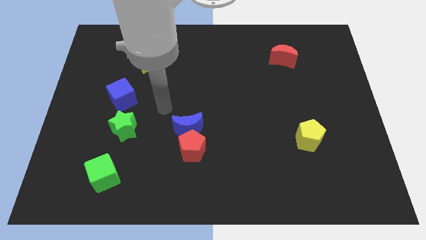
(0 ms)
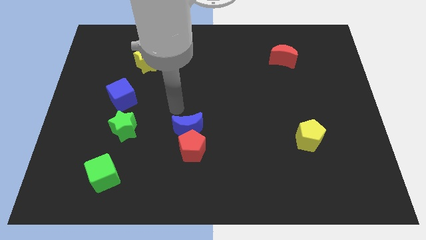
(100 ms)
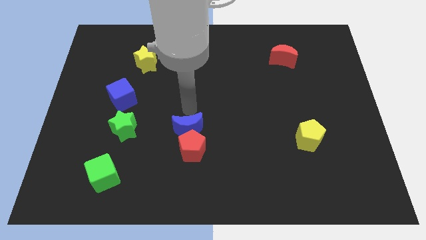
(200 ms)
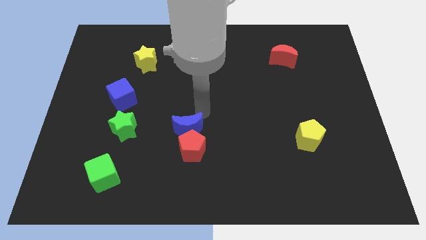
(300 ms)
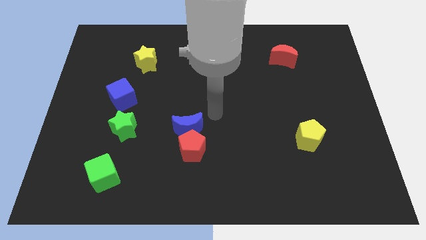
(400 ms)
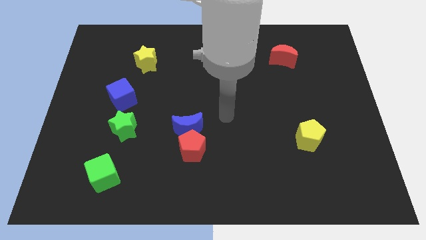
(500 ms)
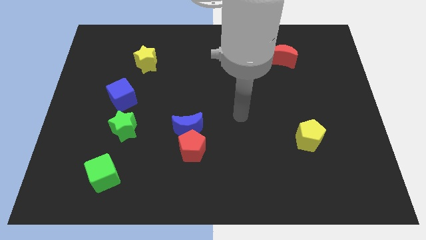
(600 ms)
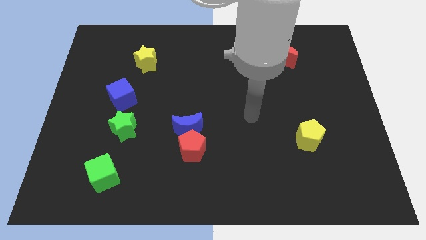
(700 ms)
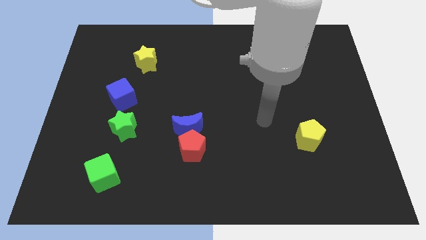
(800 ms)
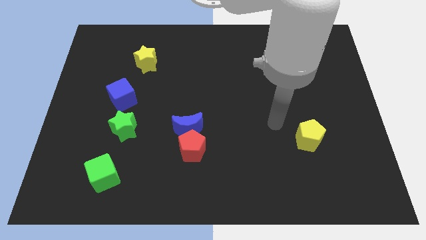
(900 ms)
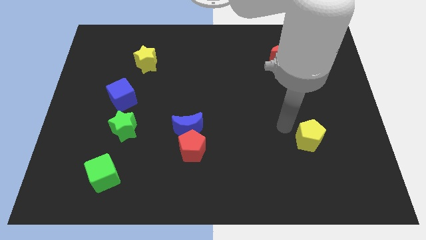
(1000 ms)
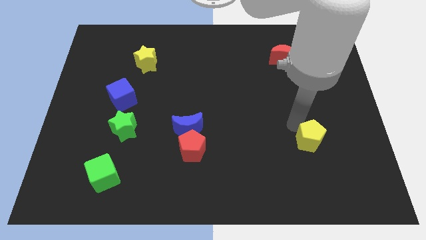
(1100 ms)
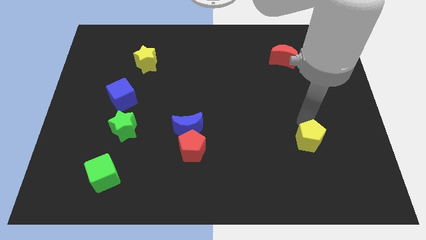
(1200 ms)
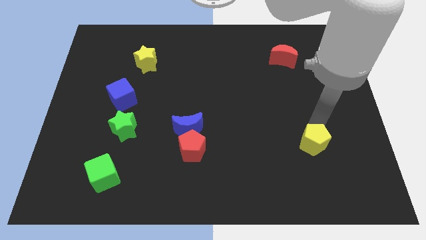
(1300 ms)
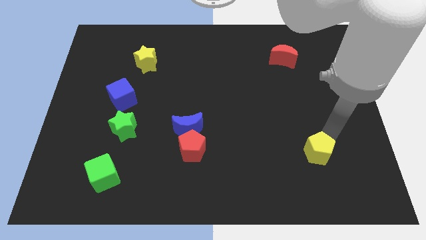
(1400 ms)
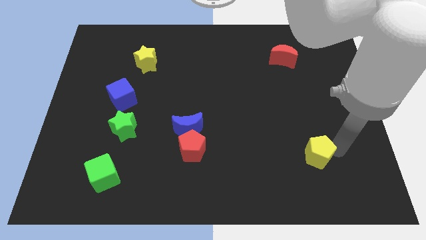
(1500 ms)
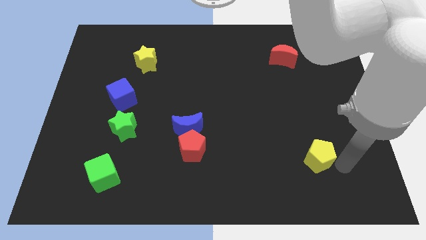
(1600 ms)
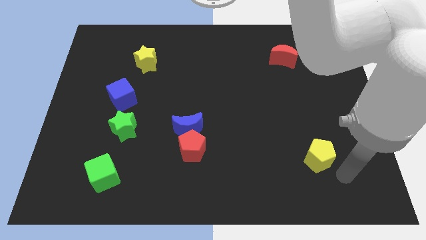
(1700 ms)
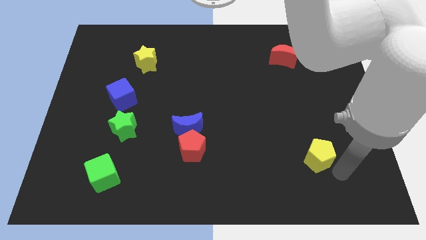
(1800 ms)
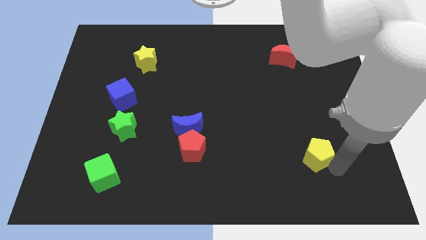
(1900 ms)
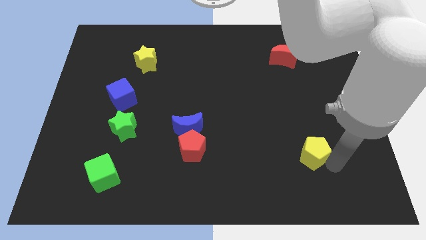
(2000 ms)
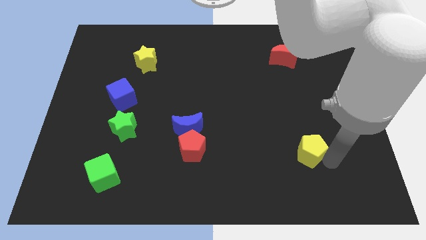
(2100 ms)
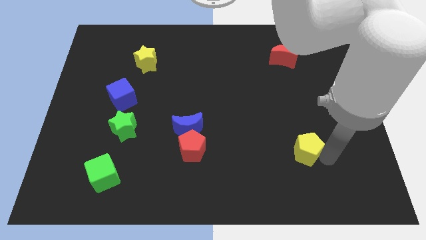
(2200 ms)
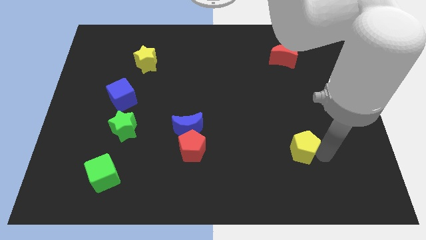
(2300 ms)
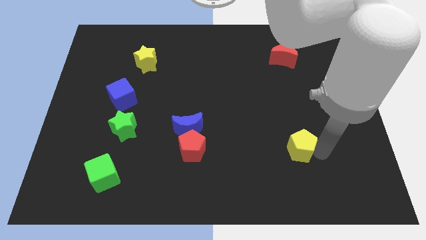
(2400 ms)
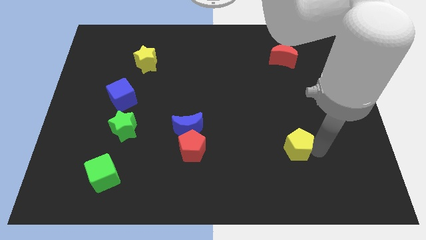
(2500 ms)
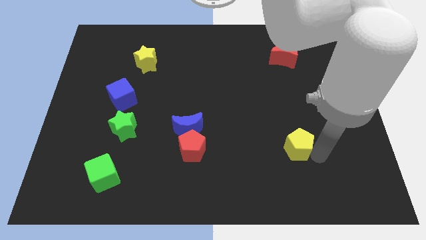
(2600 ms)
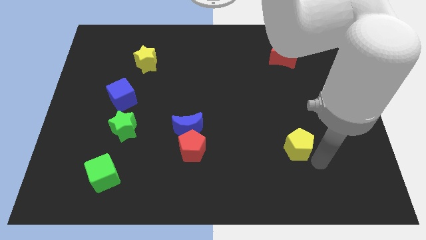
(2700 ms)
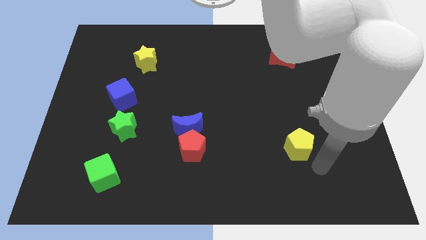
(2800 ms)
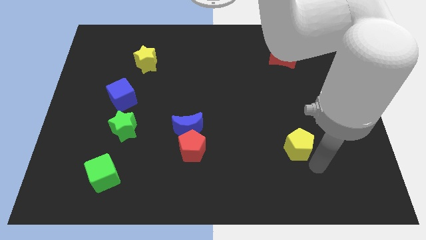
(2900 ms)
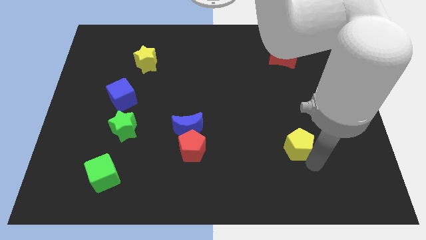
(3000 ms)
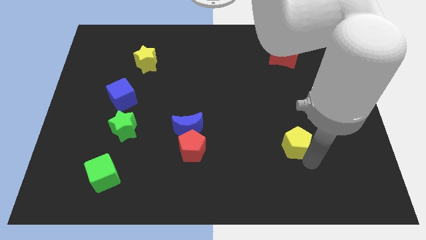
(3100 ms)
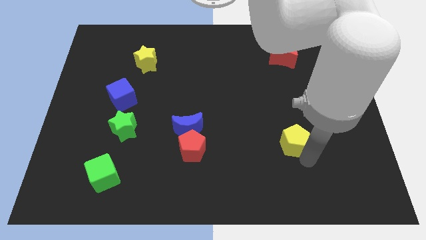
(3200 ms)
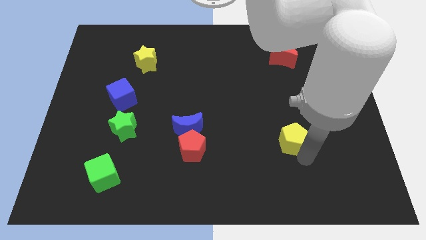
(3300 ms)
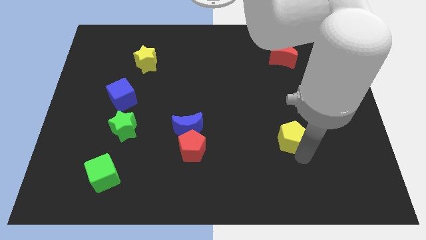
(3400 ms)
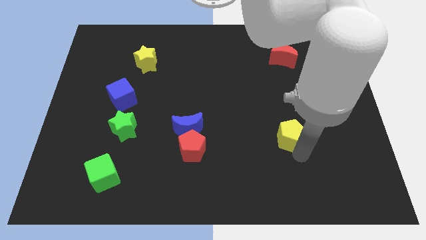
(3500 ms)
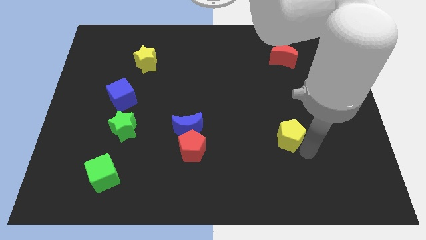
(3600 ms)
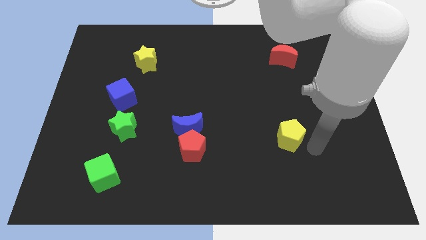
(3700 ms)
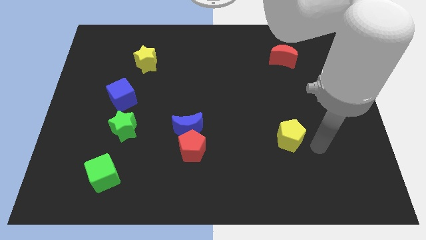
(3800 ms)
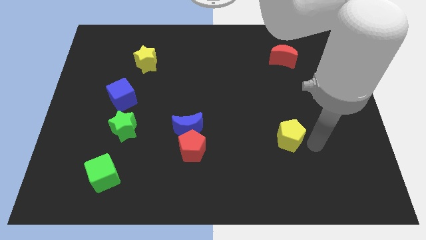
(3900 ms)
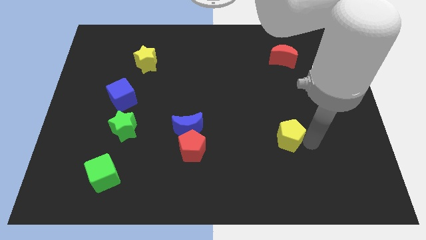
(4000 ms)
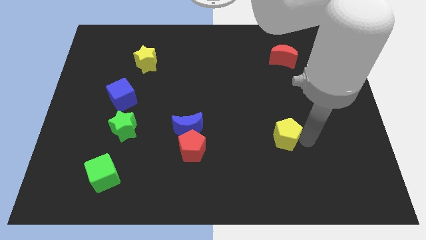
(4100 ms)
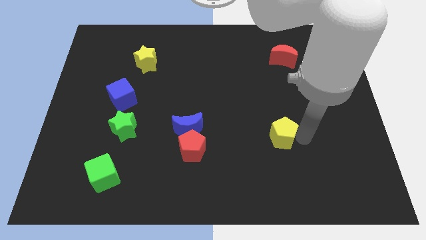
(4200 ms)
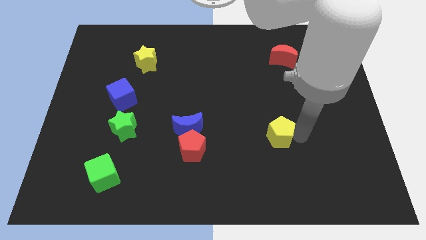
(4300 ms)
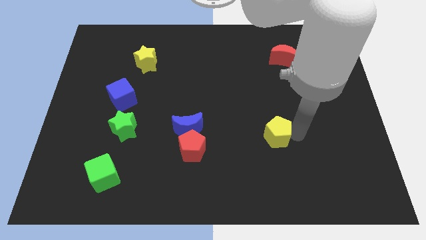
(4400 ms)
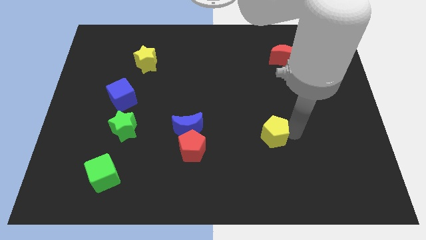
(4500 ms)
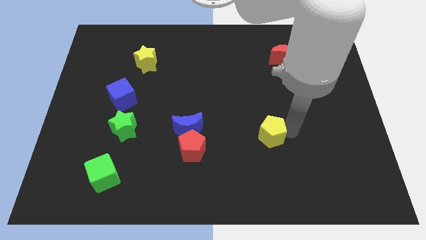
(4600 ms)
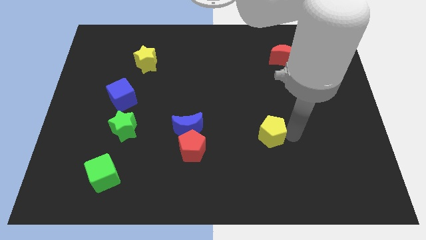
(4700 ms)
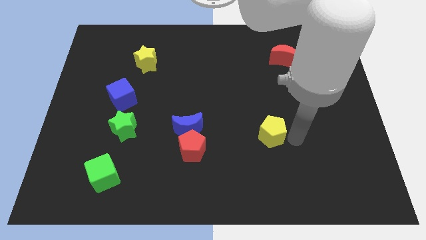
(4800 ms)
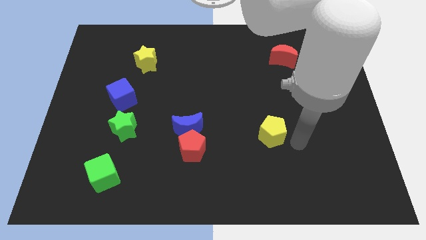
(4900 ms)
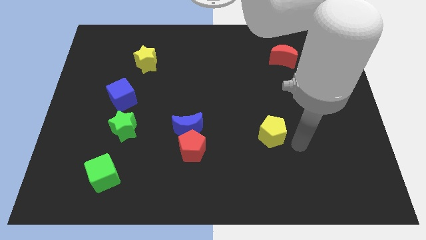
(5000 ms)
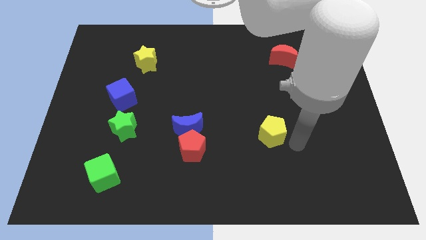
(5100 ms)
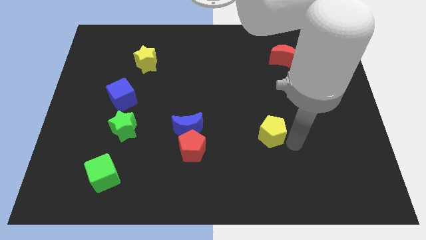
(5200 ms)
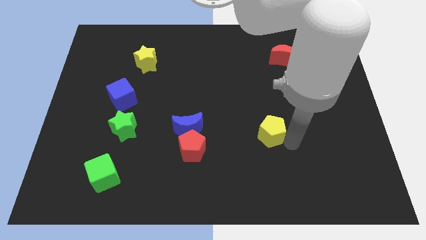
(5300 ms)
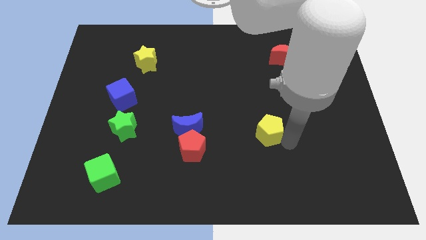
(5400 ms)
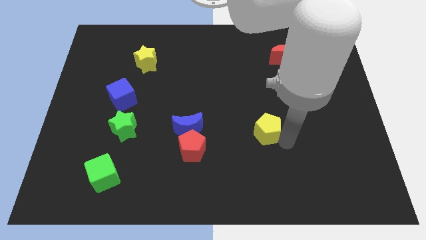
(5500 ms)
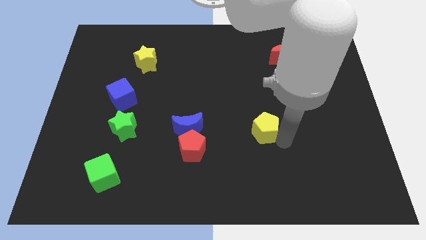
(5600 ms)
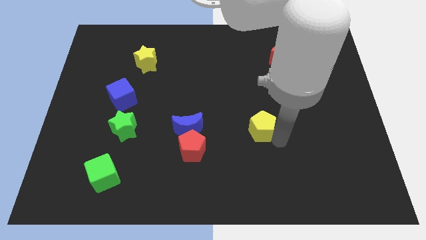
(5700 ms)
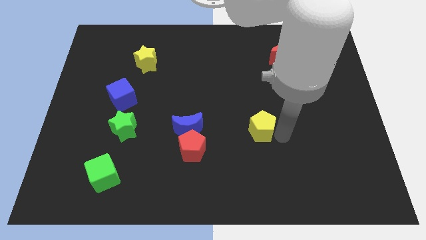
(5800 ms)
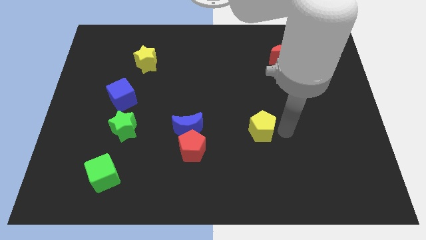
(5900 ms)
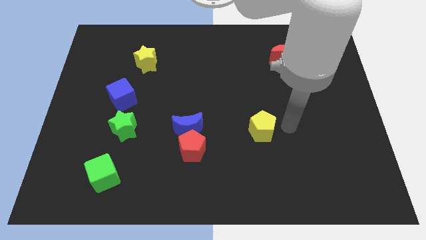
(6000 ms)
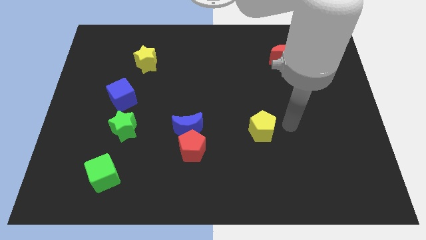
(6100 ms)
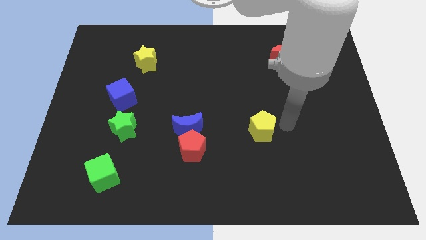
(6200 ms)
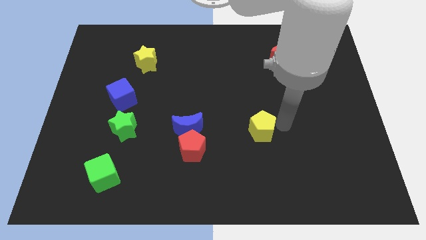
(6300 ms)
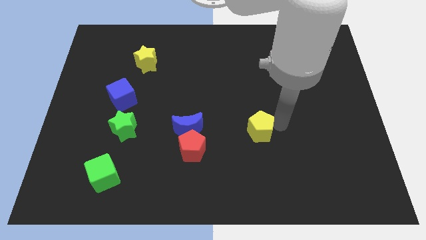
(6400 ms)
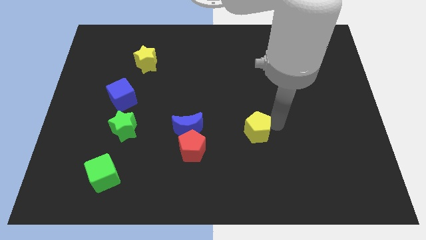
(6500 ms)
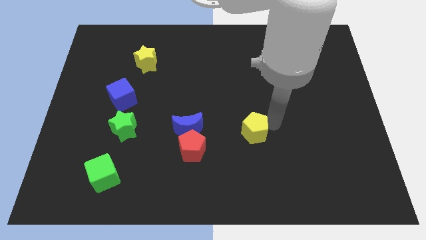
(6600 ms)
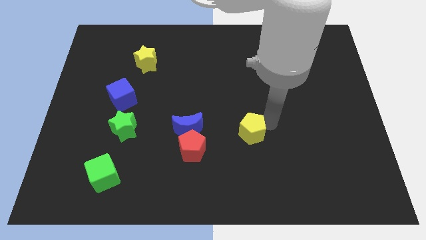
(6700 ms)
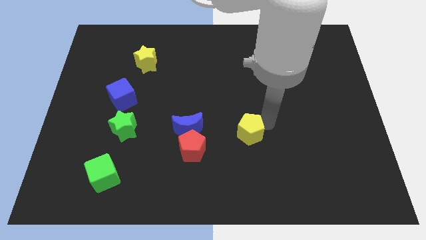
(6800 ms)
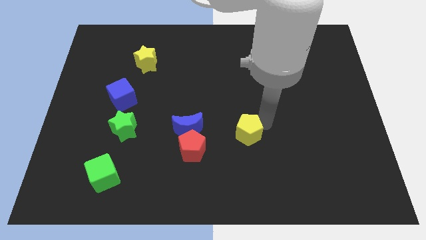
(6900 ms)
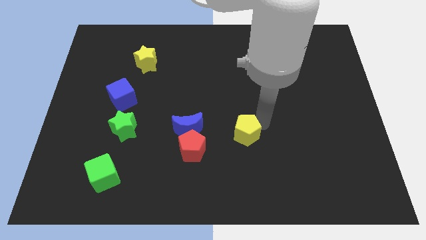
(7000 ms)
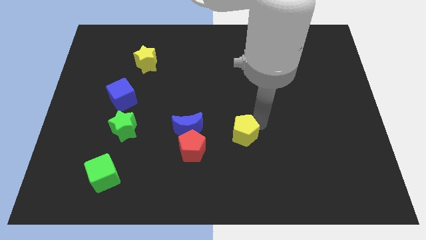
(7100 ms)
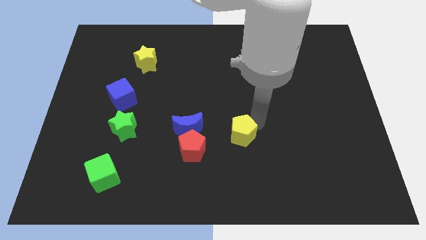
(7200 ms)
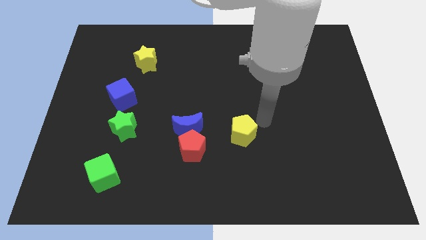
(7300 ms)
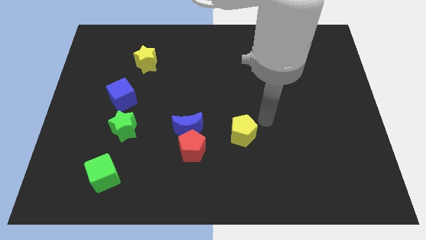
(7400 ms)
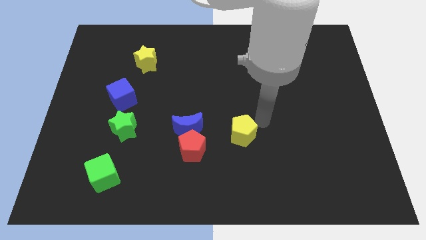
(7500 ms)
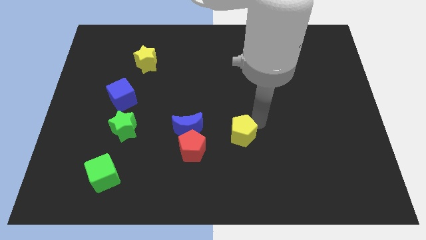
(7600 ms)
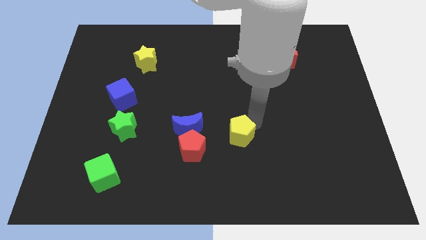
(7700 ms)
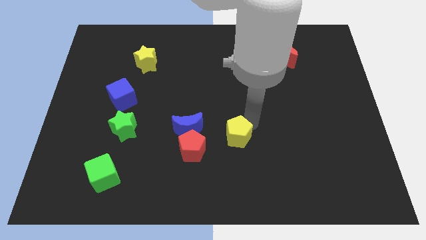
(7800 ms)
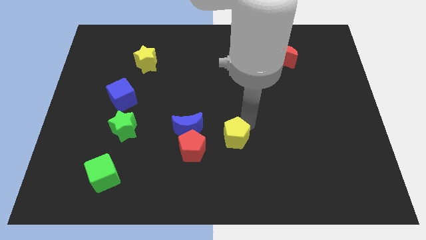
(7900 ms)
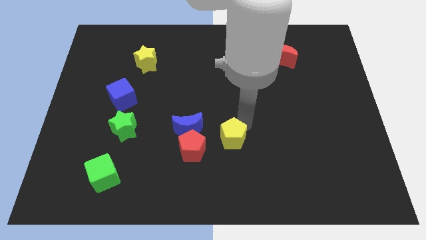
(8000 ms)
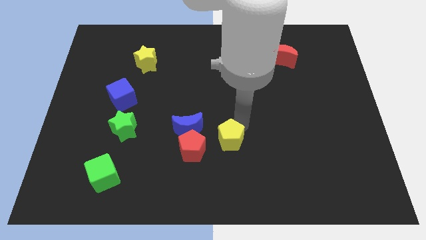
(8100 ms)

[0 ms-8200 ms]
slide the yellow pentagon diagonally down and to the right of the blue moon
